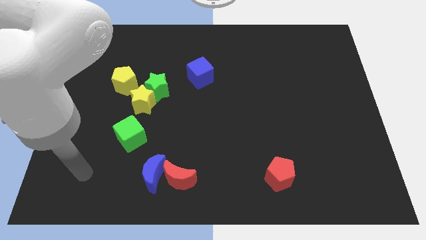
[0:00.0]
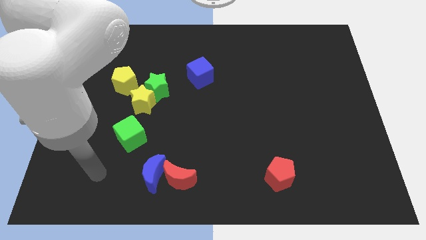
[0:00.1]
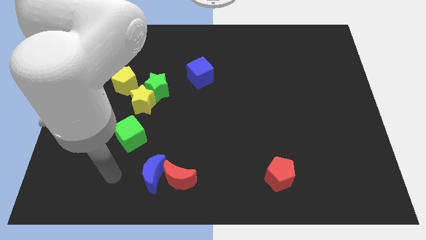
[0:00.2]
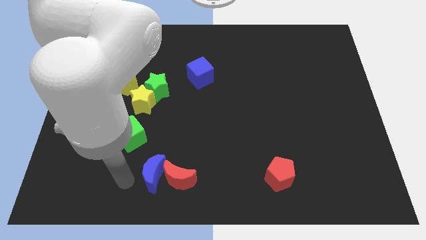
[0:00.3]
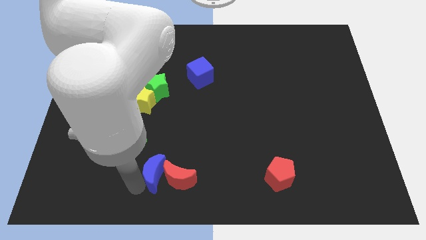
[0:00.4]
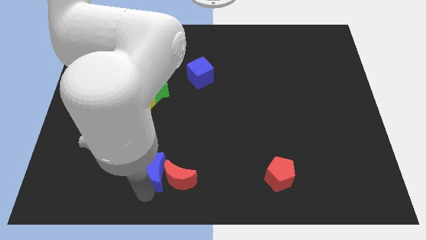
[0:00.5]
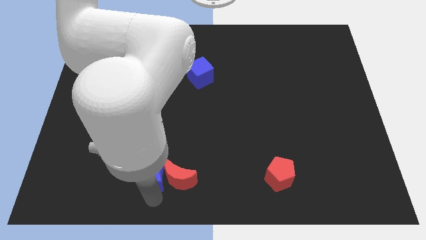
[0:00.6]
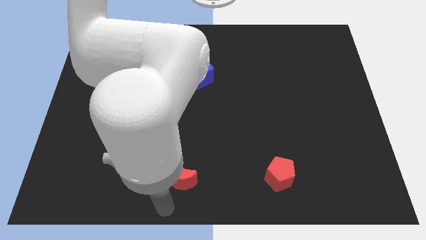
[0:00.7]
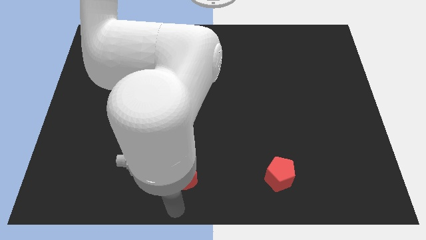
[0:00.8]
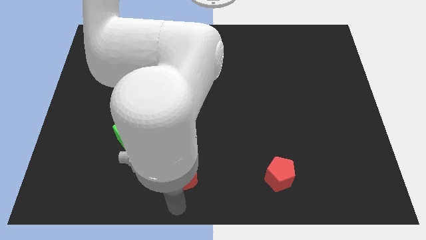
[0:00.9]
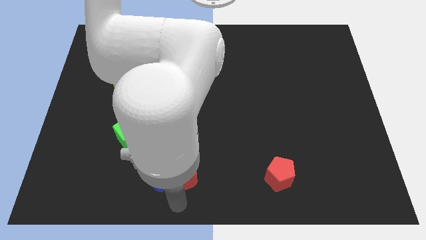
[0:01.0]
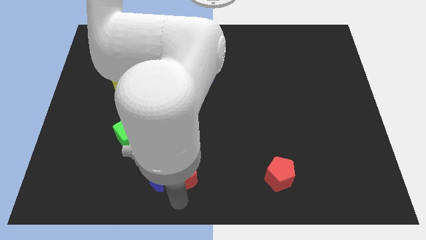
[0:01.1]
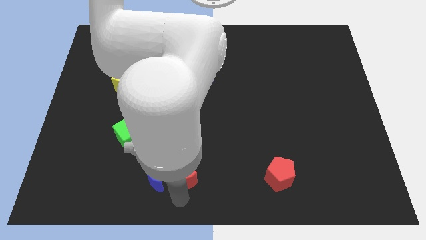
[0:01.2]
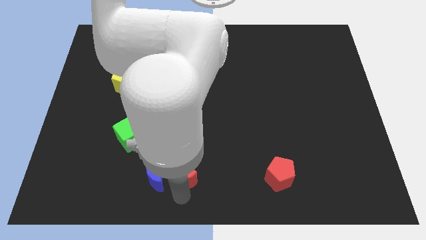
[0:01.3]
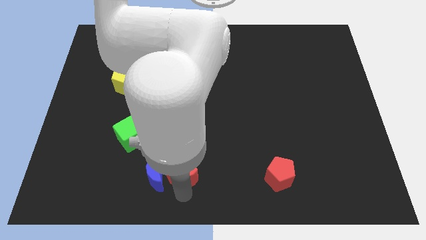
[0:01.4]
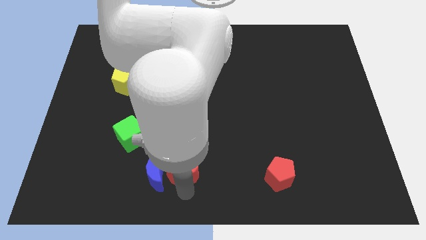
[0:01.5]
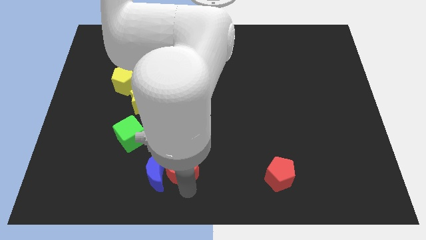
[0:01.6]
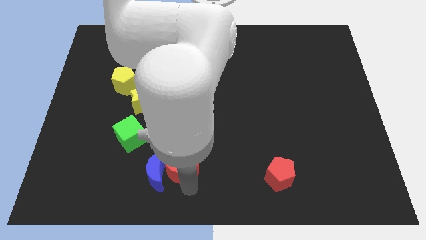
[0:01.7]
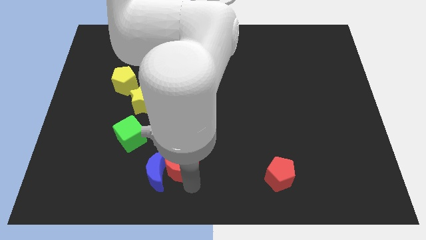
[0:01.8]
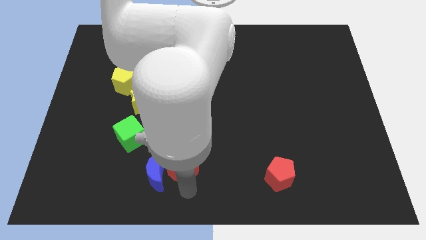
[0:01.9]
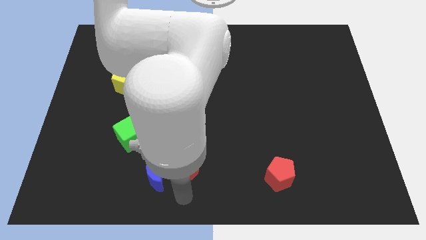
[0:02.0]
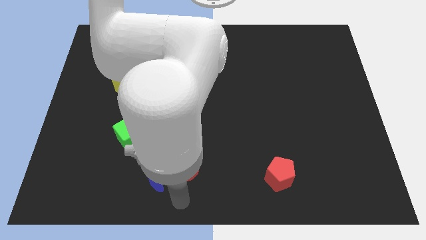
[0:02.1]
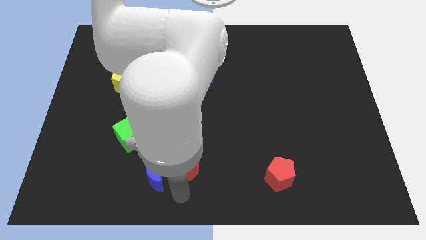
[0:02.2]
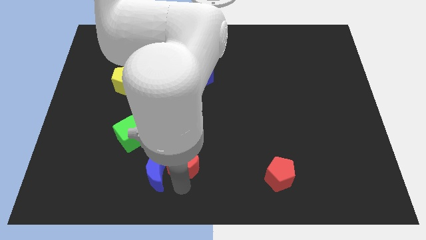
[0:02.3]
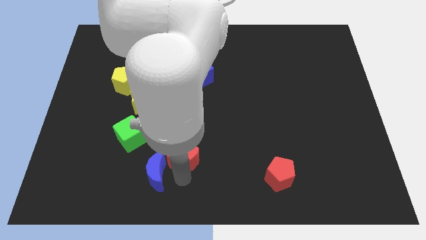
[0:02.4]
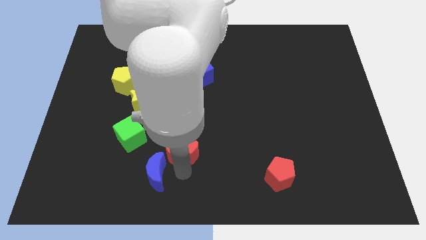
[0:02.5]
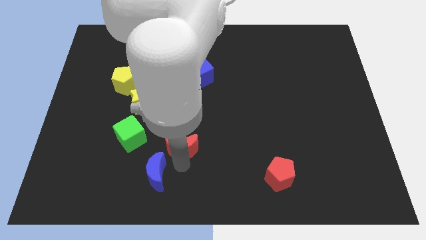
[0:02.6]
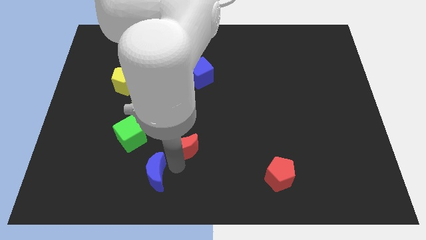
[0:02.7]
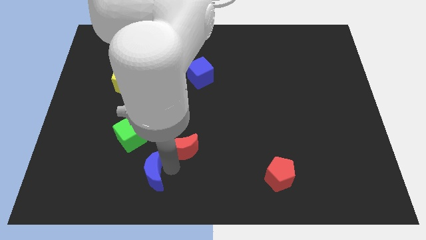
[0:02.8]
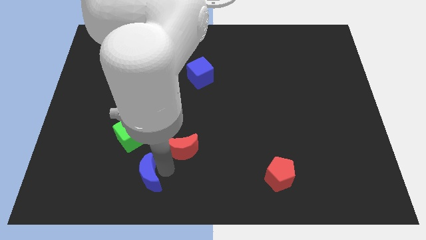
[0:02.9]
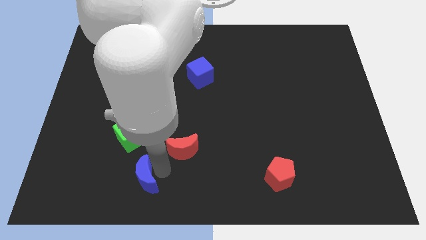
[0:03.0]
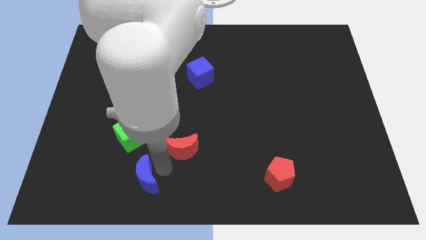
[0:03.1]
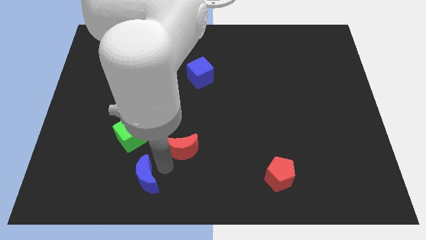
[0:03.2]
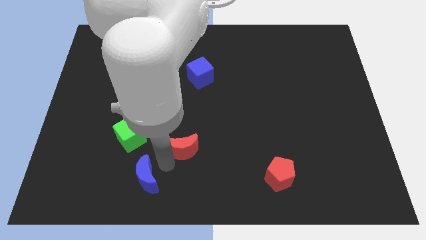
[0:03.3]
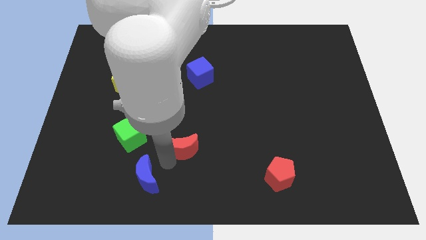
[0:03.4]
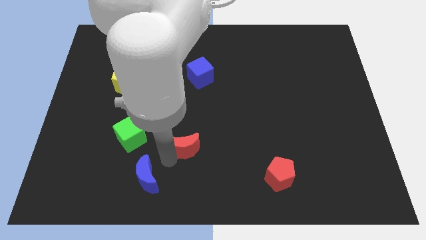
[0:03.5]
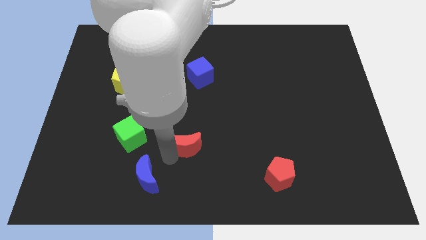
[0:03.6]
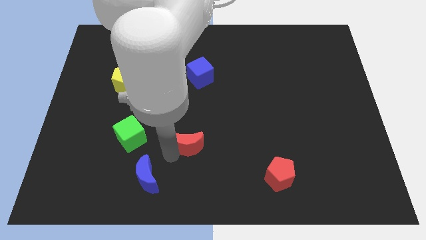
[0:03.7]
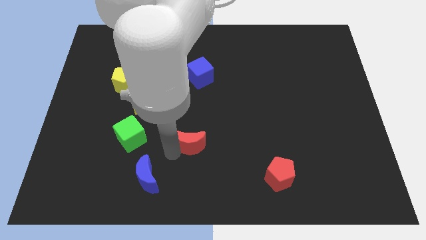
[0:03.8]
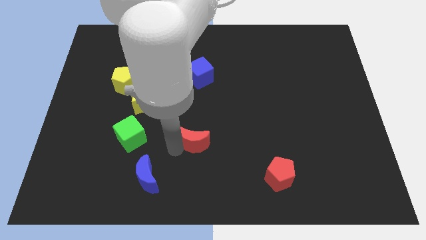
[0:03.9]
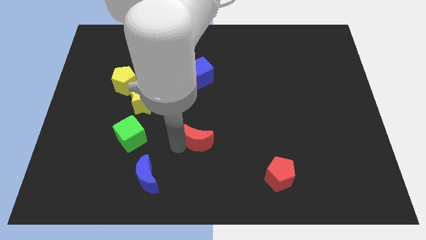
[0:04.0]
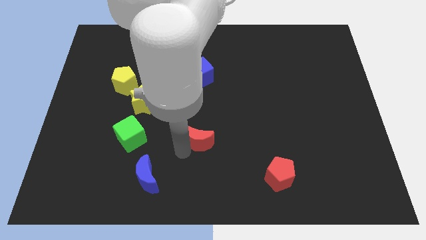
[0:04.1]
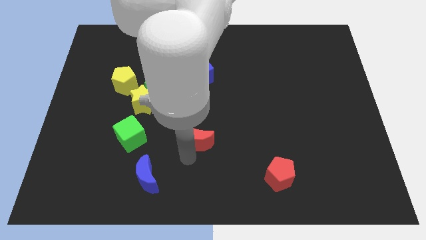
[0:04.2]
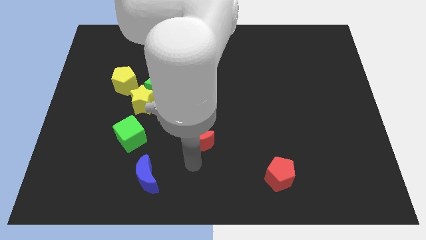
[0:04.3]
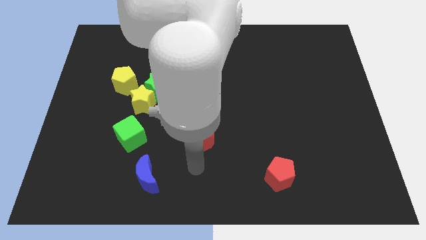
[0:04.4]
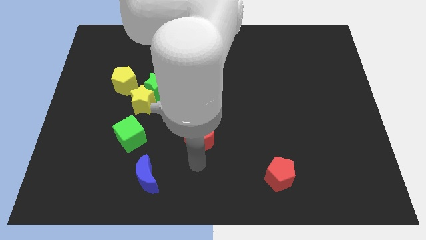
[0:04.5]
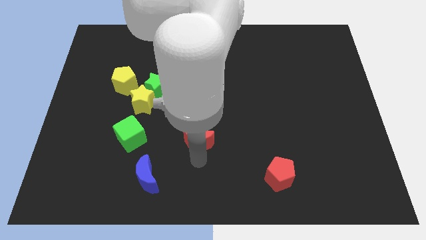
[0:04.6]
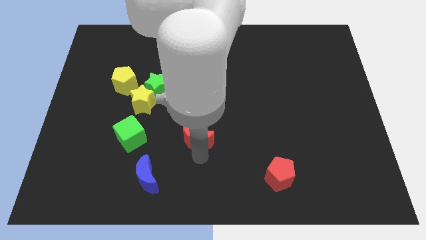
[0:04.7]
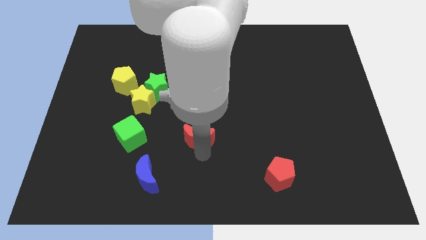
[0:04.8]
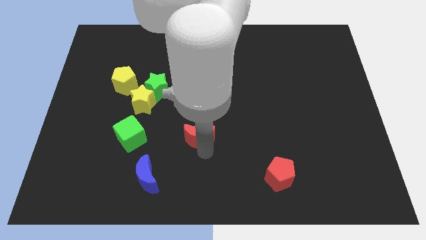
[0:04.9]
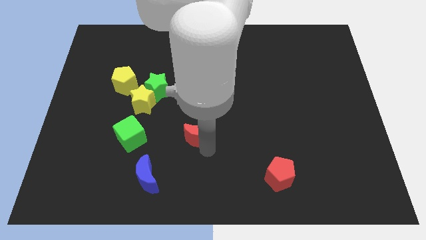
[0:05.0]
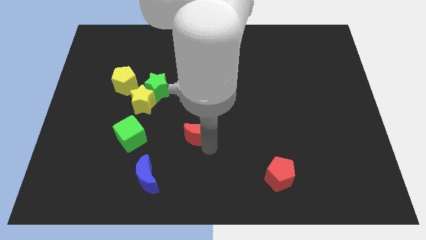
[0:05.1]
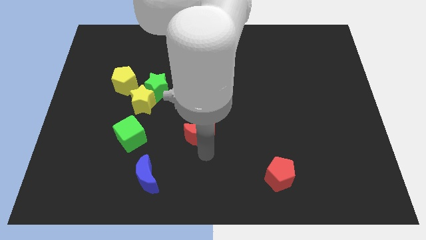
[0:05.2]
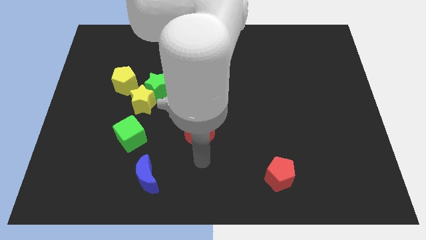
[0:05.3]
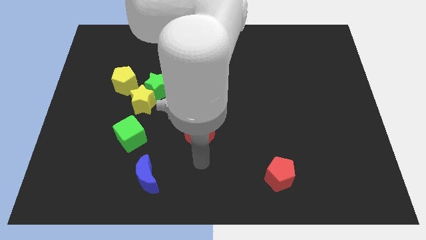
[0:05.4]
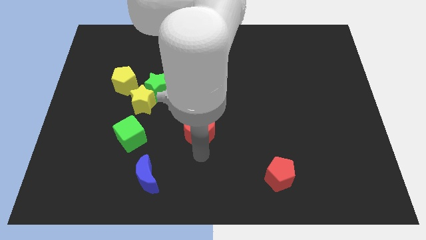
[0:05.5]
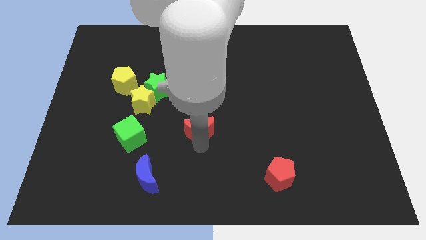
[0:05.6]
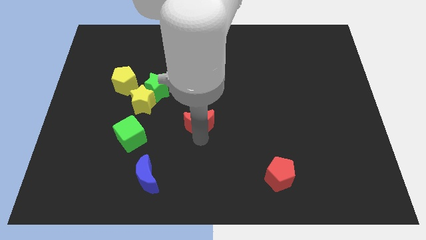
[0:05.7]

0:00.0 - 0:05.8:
push the red moon below the blue cube

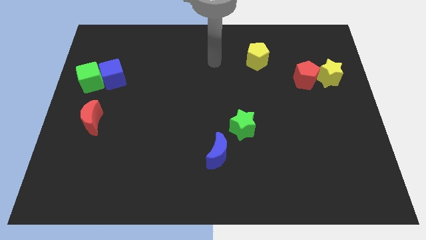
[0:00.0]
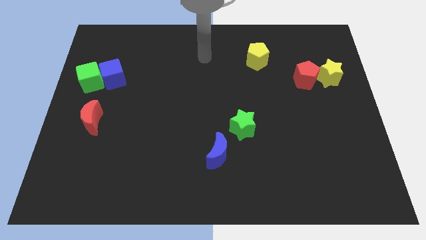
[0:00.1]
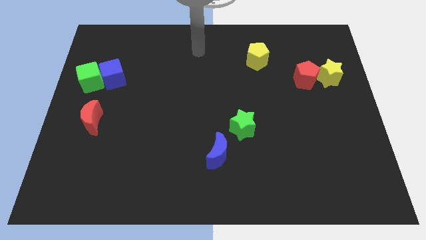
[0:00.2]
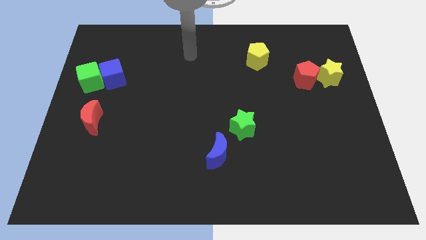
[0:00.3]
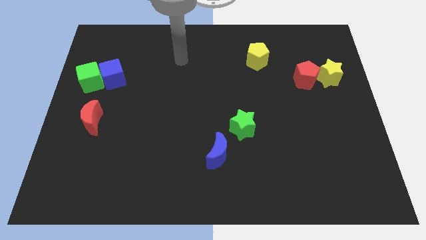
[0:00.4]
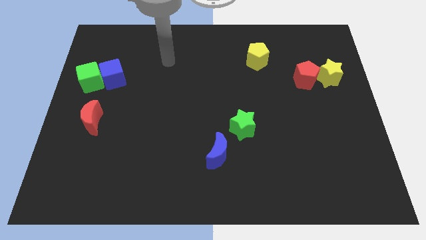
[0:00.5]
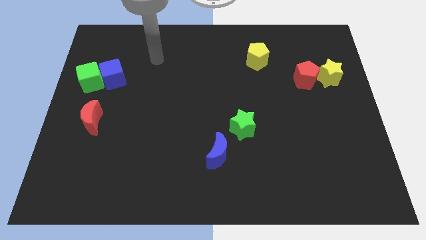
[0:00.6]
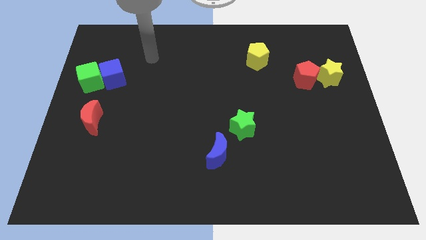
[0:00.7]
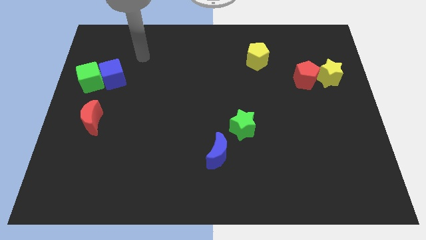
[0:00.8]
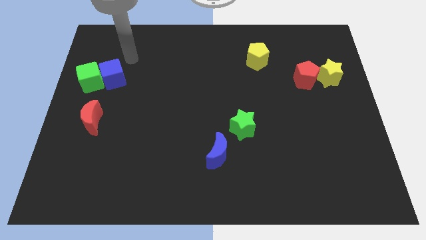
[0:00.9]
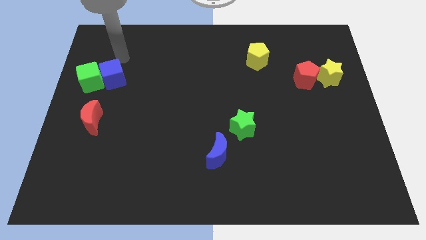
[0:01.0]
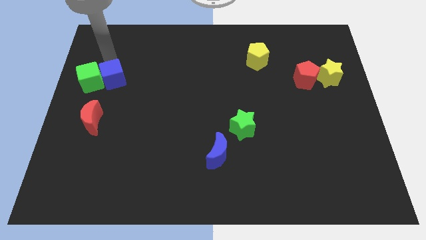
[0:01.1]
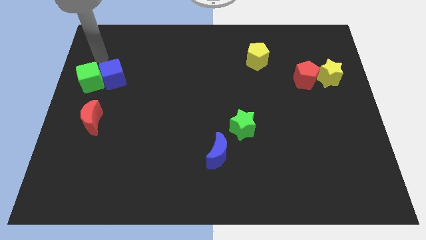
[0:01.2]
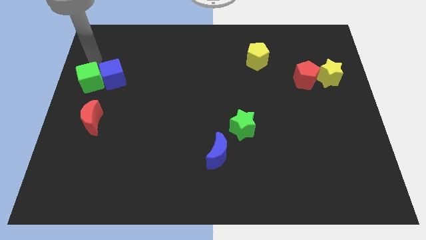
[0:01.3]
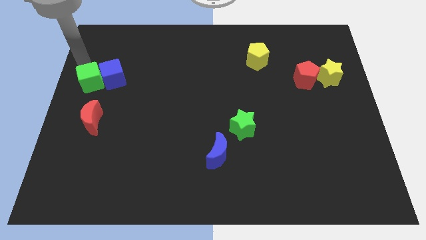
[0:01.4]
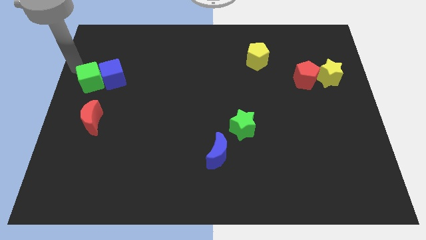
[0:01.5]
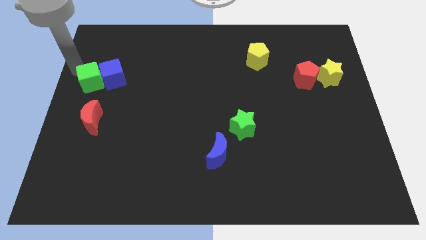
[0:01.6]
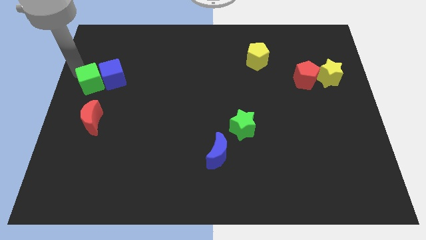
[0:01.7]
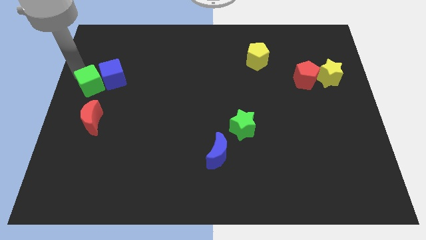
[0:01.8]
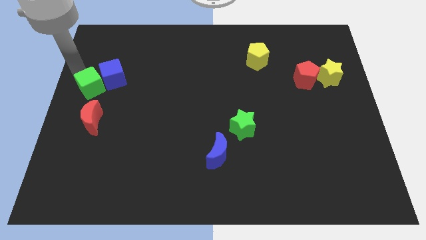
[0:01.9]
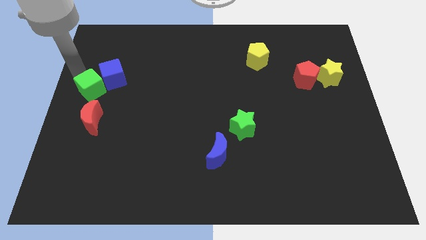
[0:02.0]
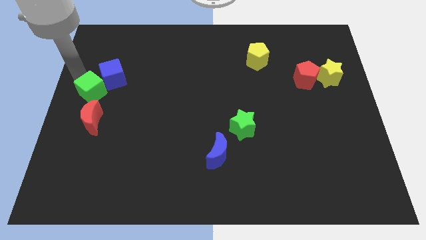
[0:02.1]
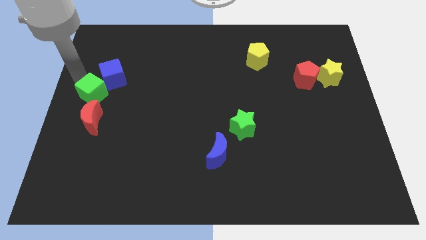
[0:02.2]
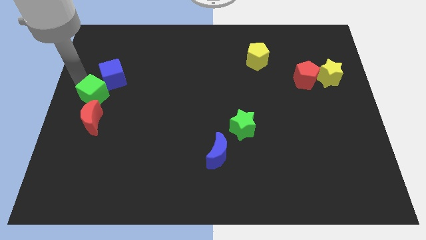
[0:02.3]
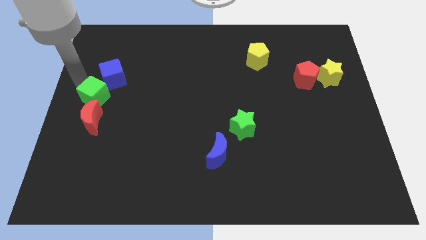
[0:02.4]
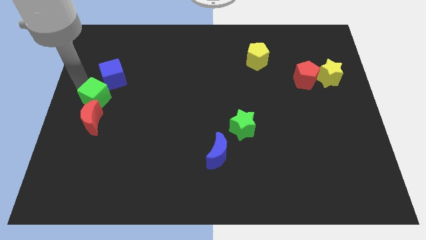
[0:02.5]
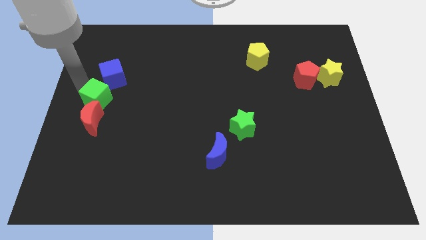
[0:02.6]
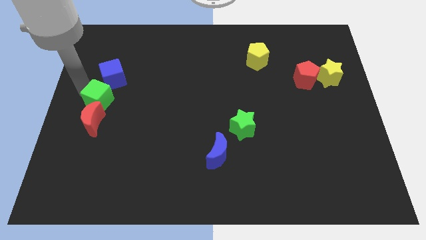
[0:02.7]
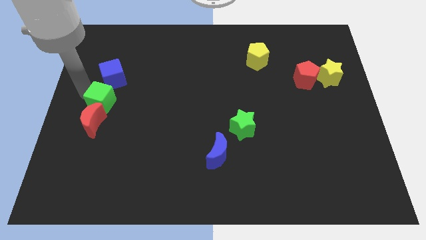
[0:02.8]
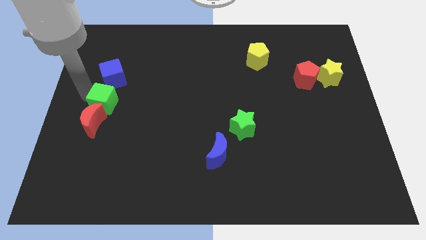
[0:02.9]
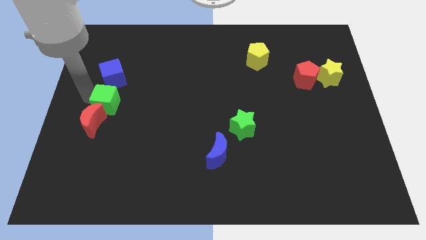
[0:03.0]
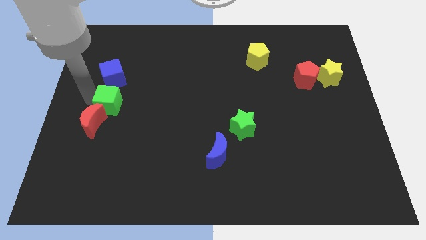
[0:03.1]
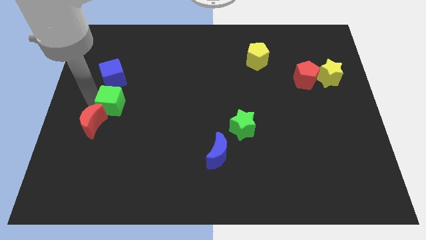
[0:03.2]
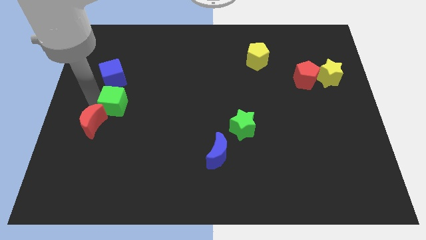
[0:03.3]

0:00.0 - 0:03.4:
move the green cube to the bottom right side of the blue cube
